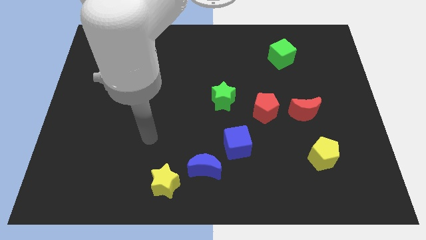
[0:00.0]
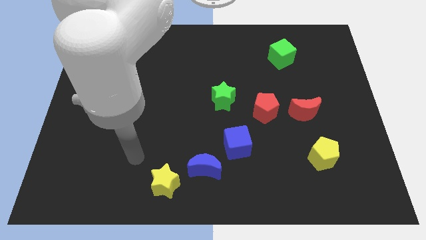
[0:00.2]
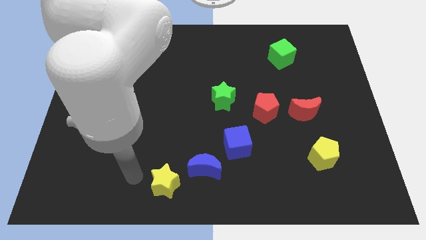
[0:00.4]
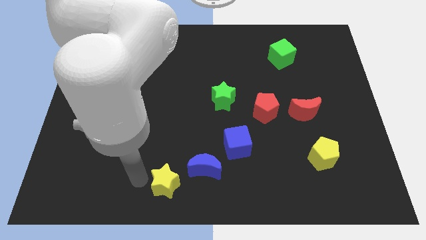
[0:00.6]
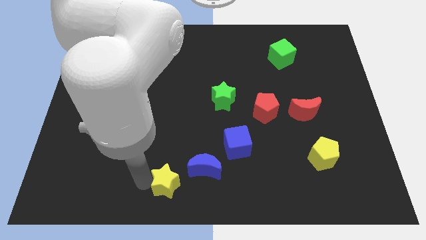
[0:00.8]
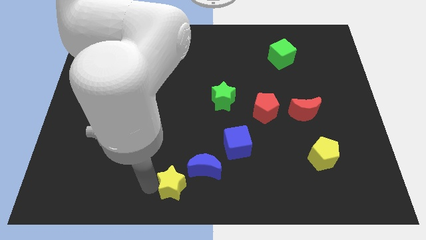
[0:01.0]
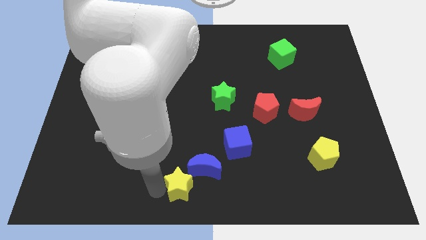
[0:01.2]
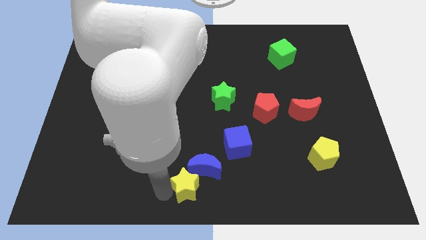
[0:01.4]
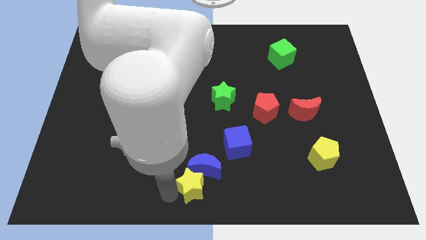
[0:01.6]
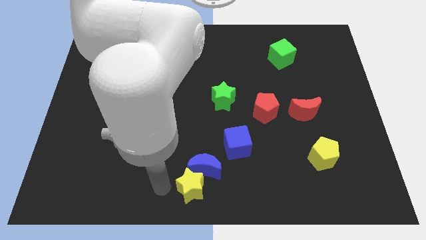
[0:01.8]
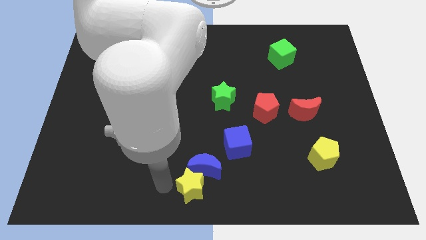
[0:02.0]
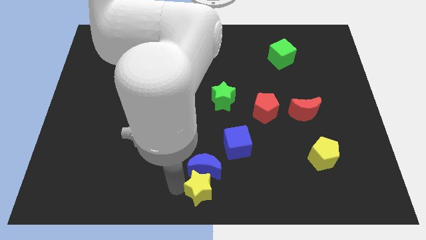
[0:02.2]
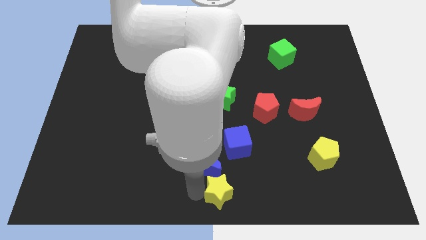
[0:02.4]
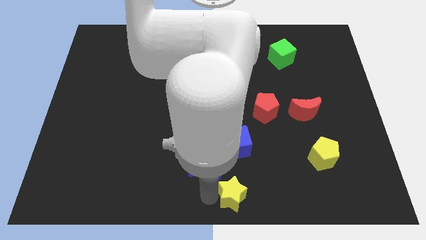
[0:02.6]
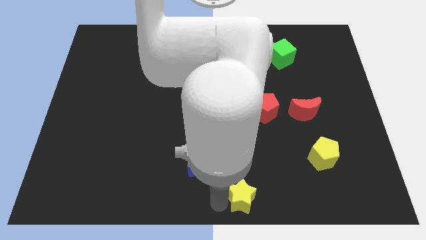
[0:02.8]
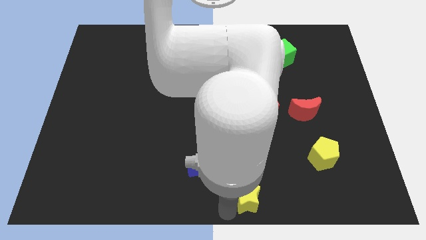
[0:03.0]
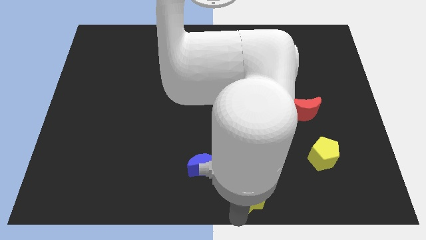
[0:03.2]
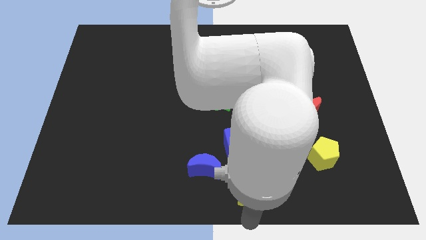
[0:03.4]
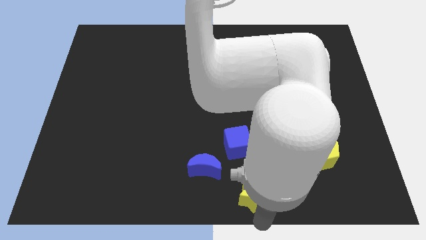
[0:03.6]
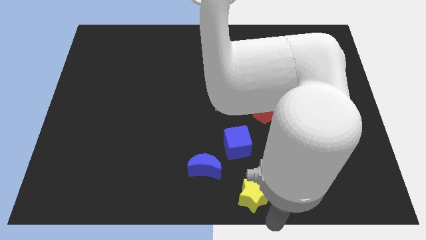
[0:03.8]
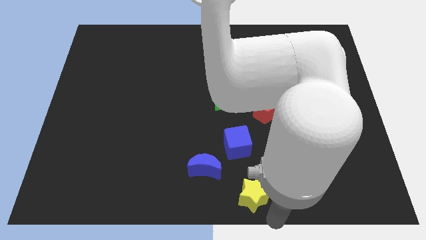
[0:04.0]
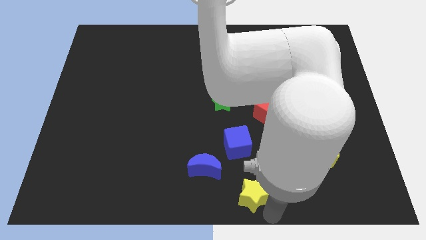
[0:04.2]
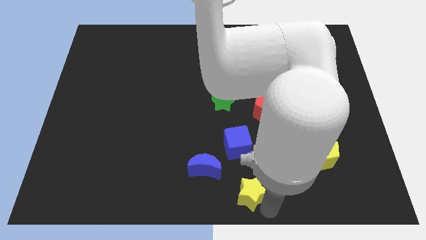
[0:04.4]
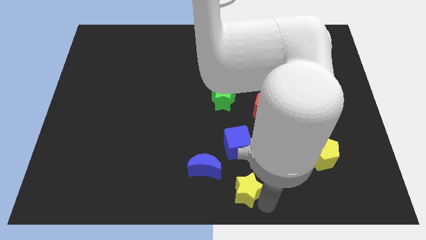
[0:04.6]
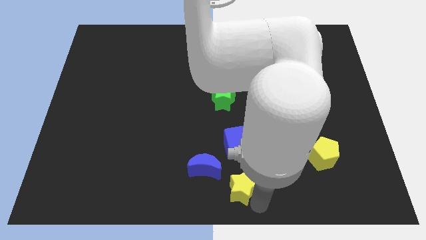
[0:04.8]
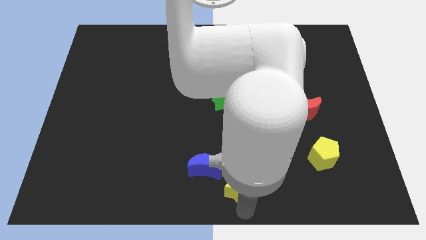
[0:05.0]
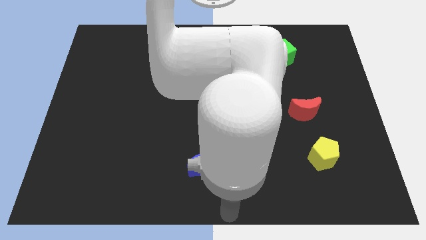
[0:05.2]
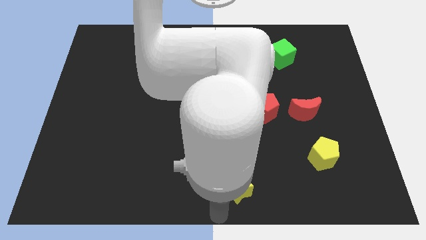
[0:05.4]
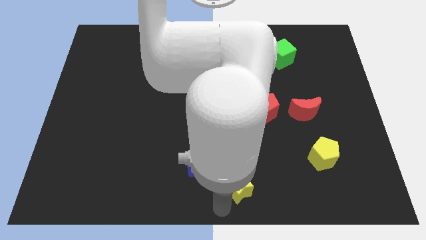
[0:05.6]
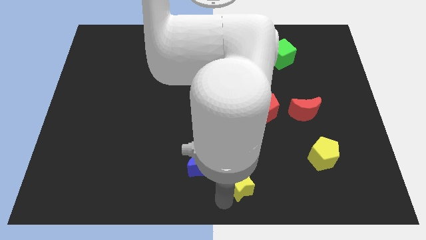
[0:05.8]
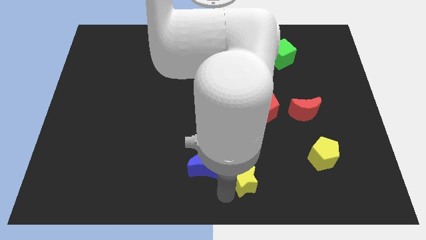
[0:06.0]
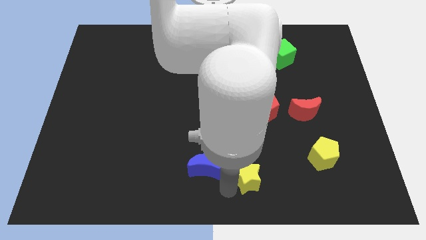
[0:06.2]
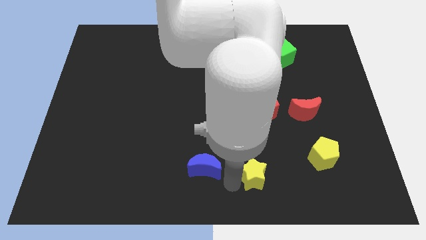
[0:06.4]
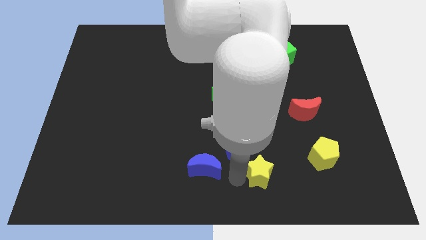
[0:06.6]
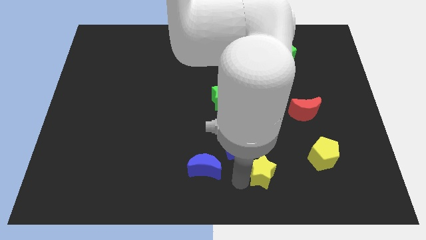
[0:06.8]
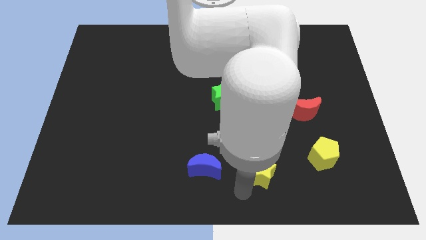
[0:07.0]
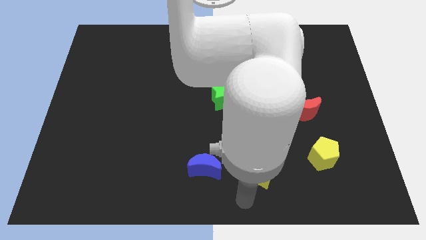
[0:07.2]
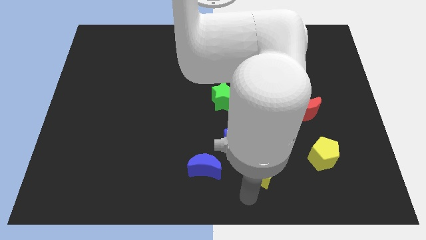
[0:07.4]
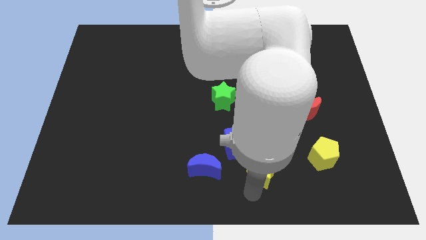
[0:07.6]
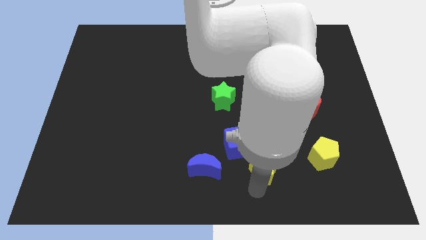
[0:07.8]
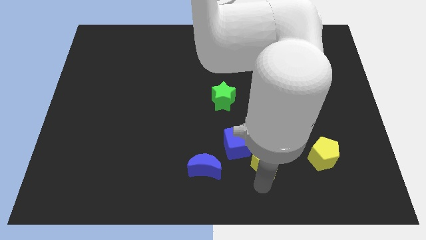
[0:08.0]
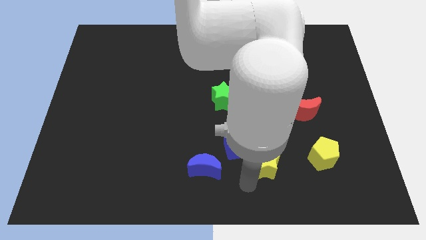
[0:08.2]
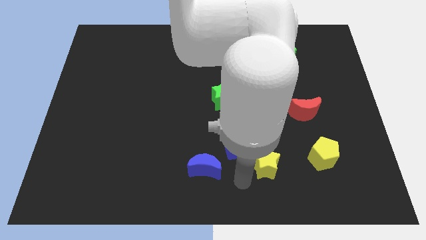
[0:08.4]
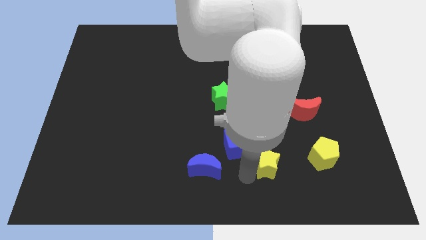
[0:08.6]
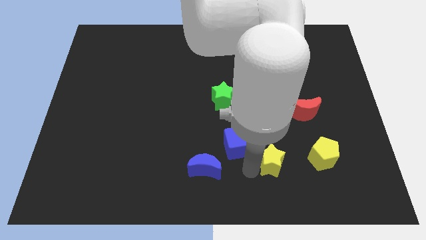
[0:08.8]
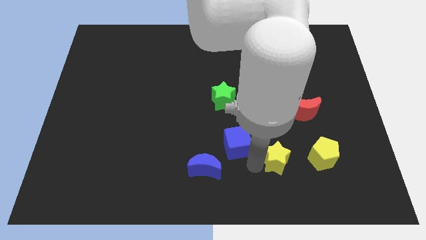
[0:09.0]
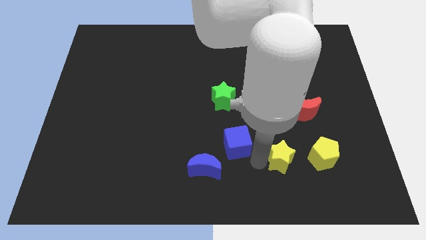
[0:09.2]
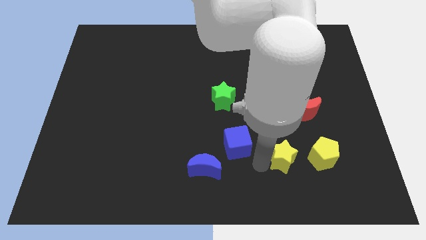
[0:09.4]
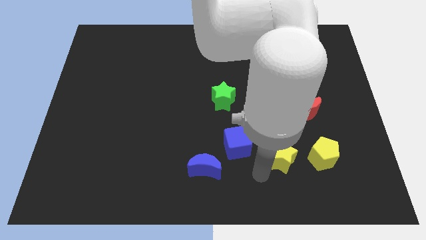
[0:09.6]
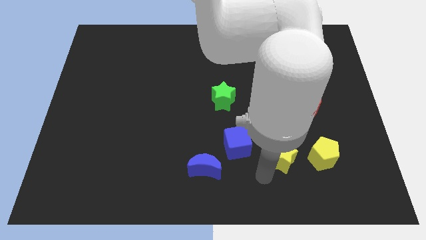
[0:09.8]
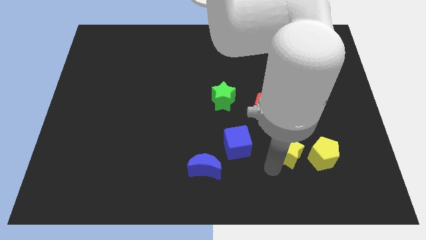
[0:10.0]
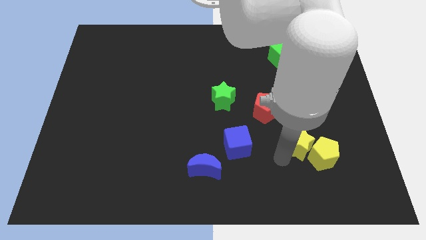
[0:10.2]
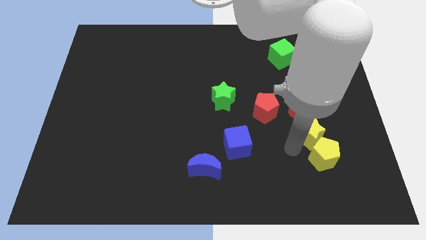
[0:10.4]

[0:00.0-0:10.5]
slide the yellow star diagonally down and to the right of the red moon

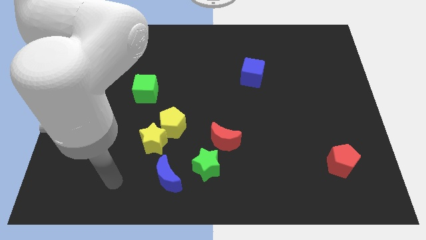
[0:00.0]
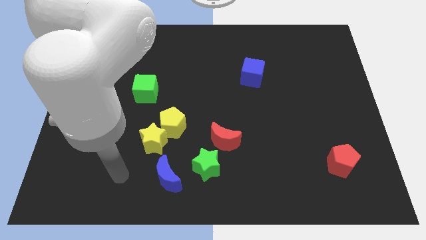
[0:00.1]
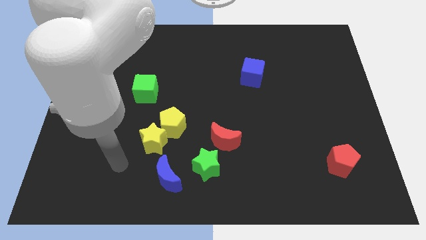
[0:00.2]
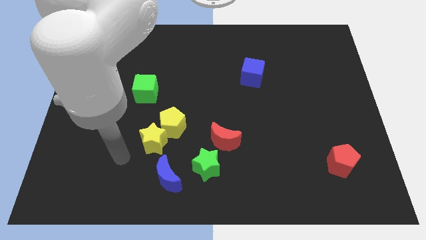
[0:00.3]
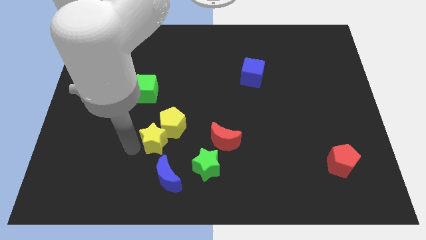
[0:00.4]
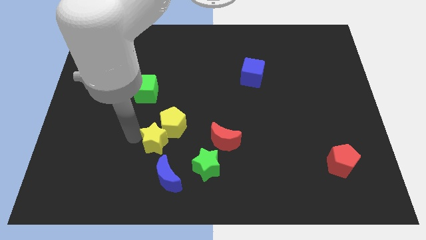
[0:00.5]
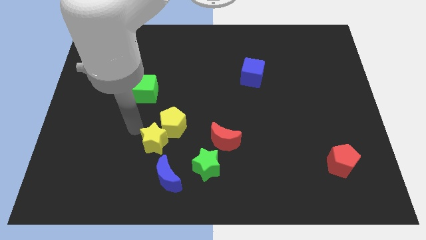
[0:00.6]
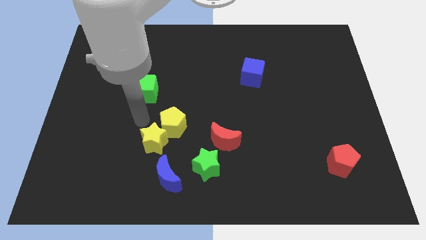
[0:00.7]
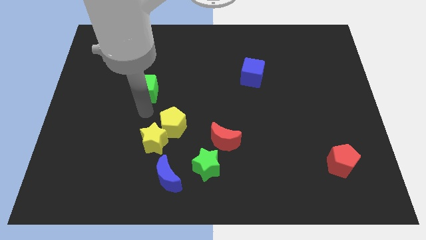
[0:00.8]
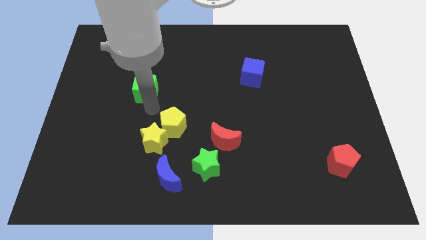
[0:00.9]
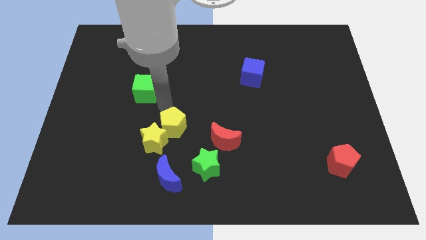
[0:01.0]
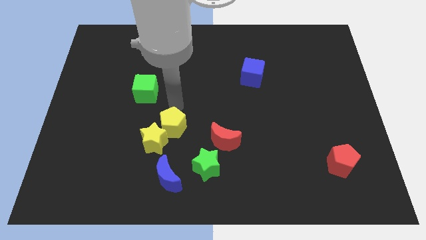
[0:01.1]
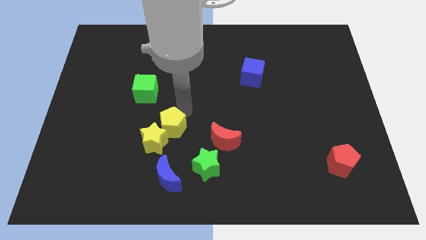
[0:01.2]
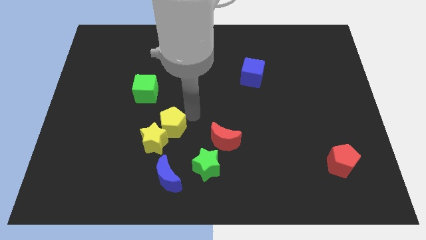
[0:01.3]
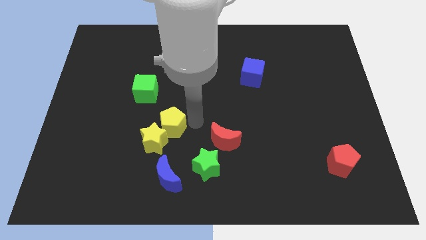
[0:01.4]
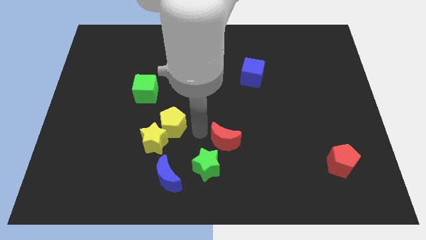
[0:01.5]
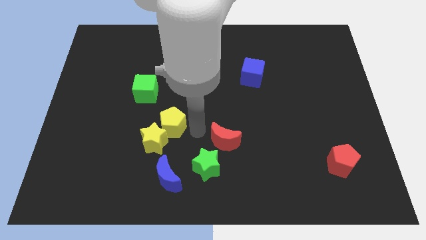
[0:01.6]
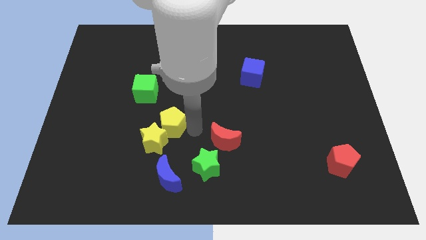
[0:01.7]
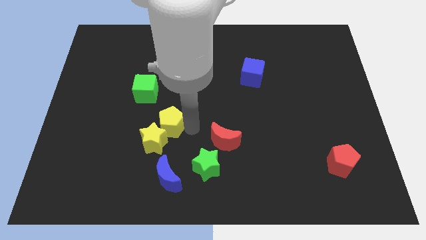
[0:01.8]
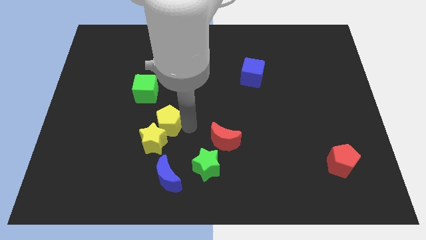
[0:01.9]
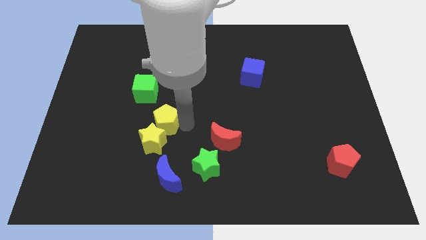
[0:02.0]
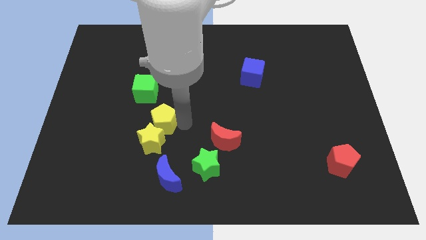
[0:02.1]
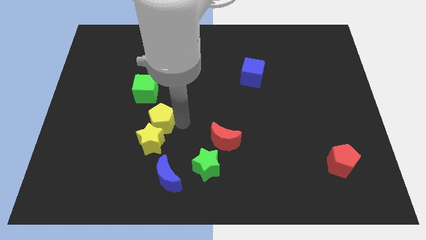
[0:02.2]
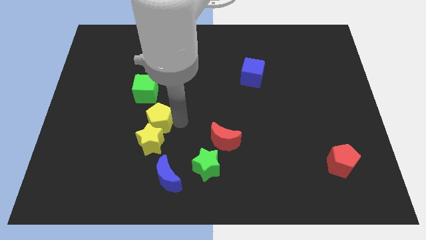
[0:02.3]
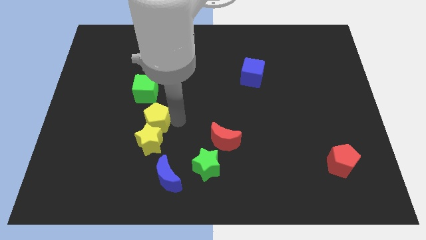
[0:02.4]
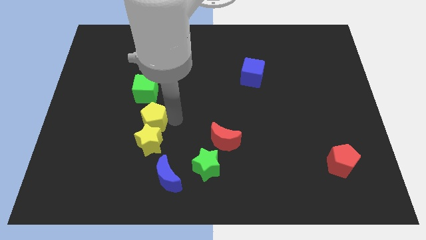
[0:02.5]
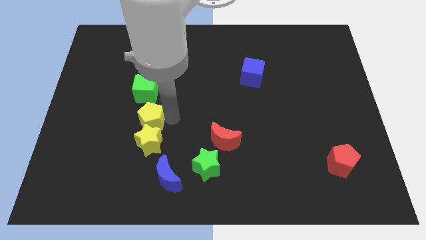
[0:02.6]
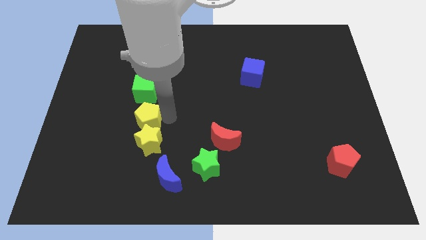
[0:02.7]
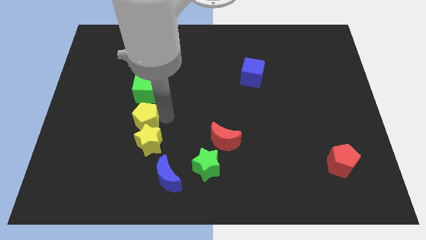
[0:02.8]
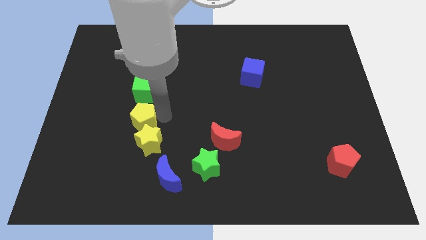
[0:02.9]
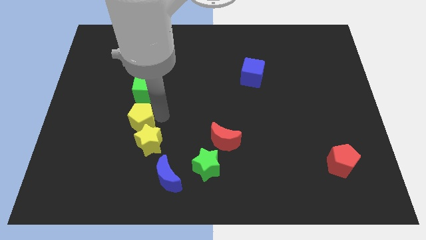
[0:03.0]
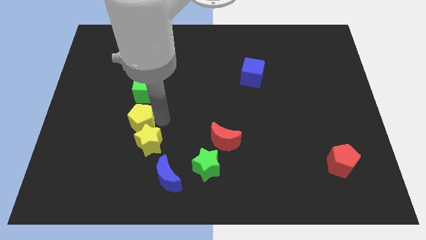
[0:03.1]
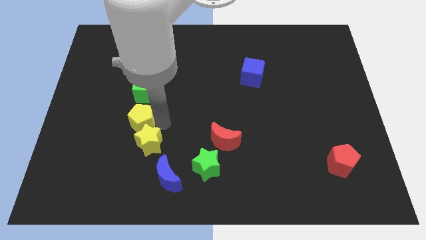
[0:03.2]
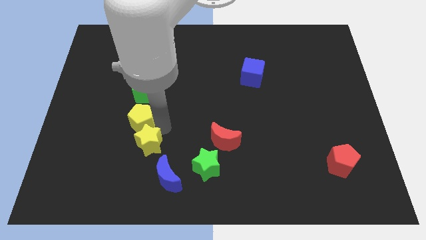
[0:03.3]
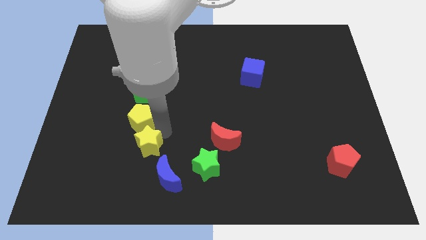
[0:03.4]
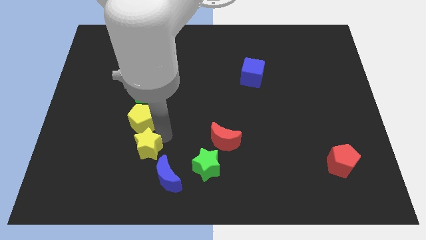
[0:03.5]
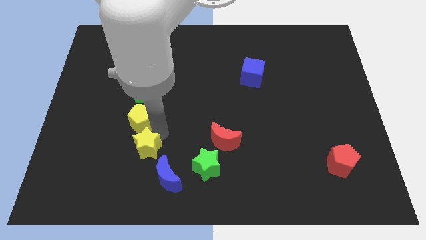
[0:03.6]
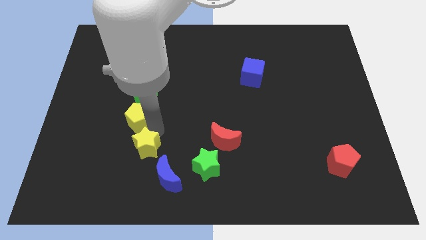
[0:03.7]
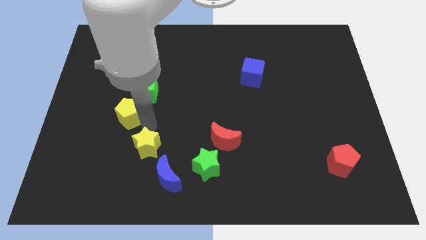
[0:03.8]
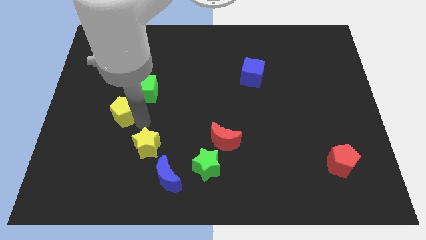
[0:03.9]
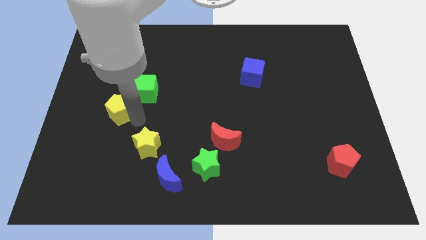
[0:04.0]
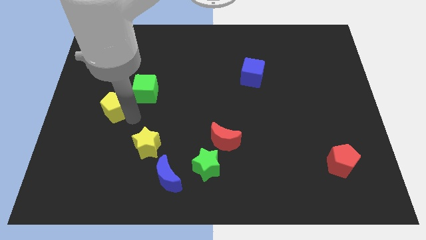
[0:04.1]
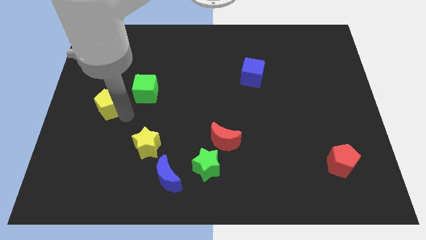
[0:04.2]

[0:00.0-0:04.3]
push the yellow pentagon to the left side of the green cube
